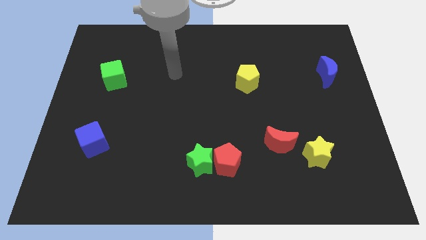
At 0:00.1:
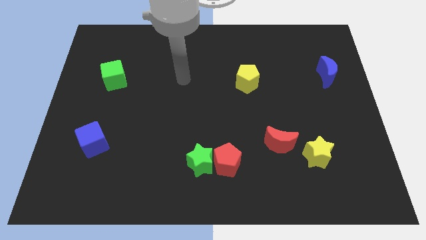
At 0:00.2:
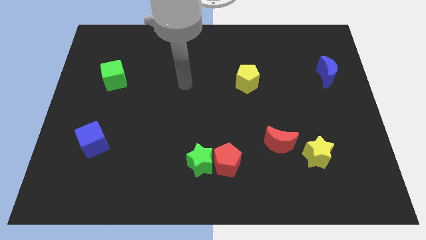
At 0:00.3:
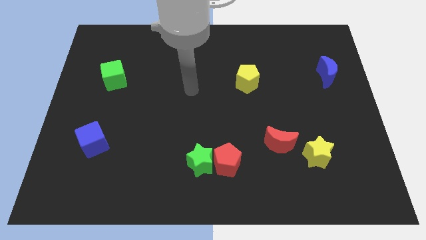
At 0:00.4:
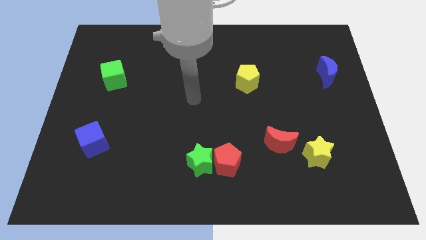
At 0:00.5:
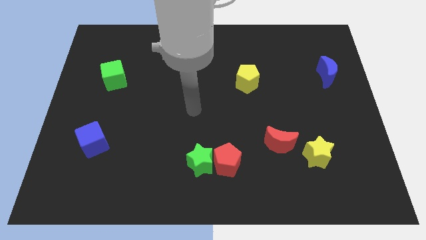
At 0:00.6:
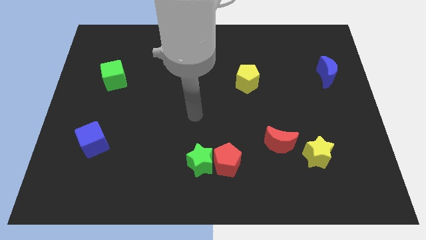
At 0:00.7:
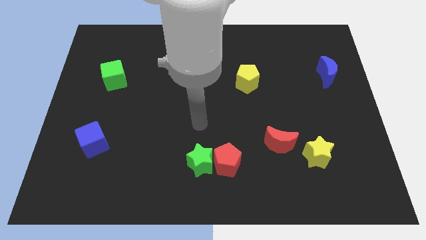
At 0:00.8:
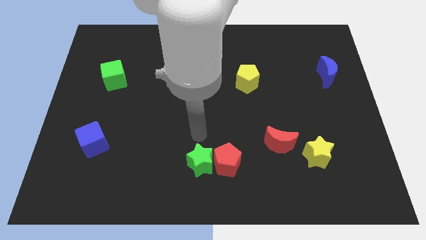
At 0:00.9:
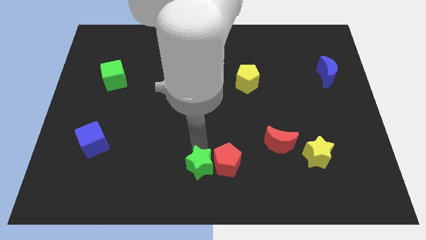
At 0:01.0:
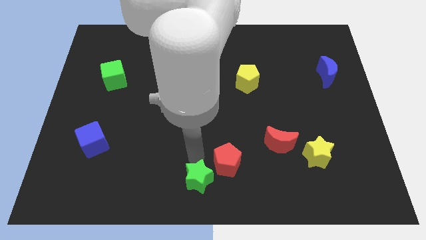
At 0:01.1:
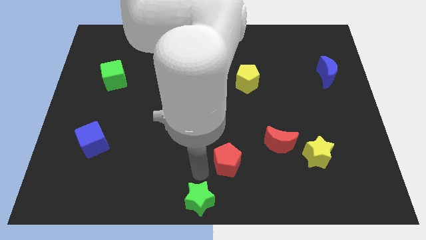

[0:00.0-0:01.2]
separate the red pentagon from the green star

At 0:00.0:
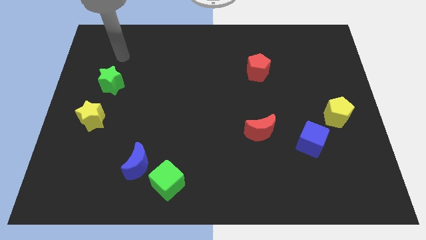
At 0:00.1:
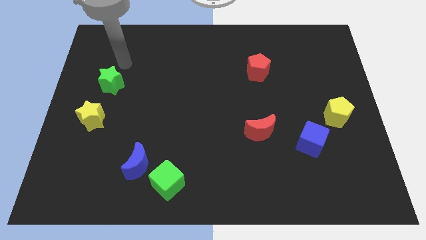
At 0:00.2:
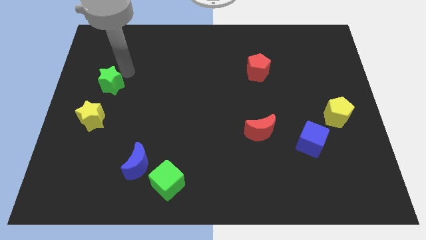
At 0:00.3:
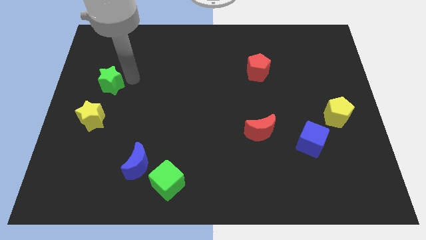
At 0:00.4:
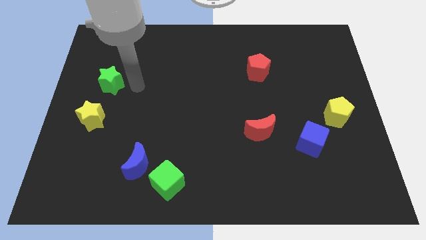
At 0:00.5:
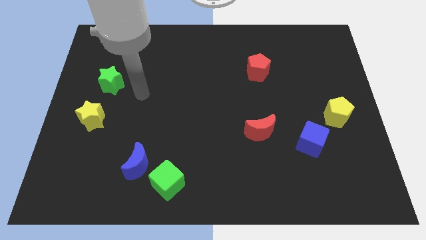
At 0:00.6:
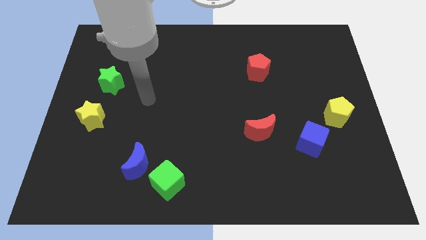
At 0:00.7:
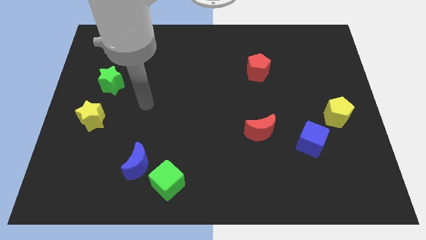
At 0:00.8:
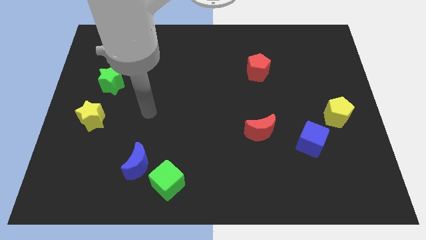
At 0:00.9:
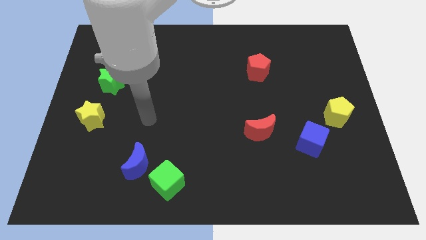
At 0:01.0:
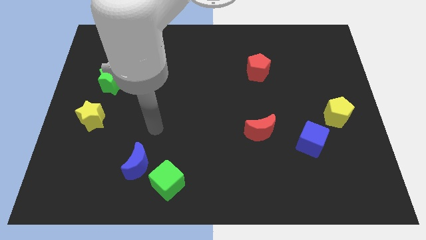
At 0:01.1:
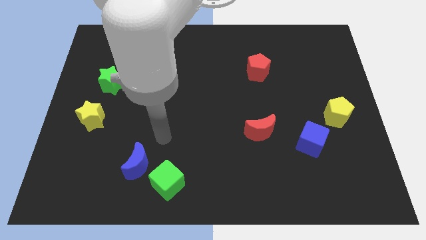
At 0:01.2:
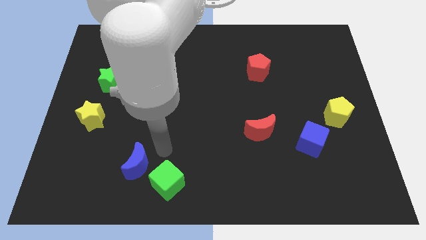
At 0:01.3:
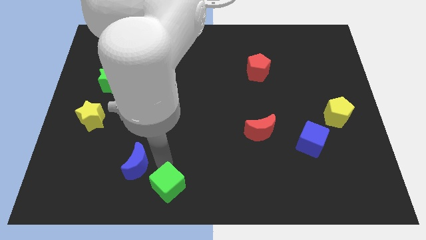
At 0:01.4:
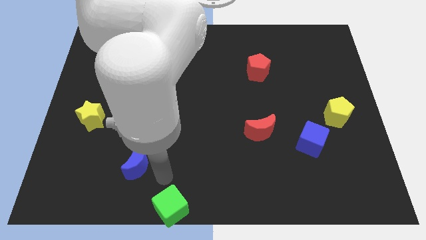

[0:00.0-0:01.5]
pull the blue moon apart from the green cube

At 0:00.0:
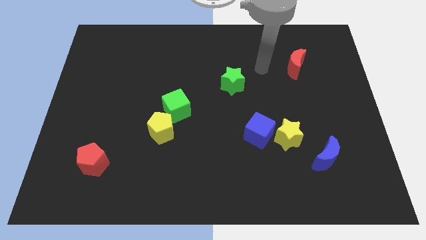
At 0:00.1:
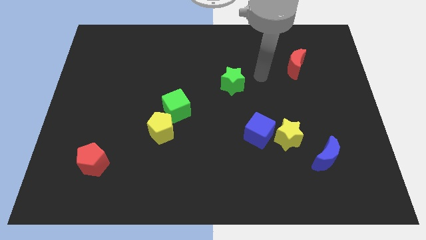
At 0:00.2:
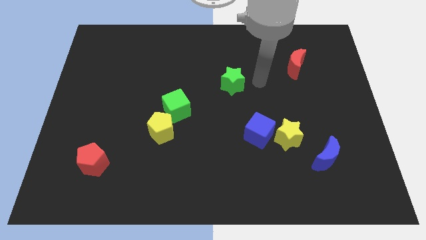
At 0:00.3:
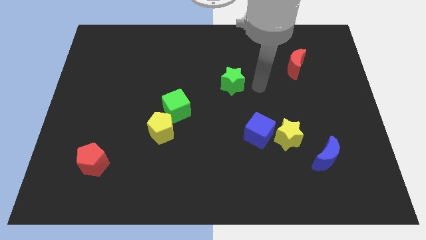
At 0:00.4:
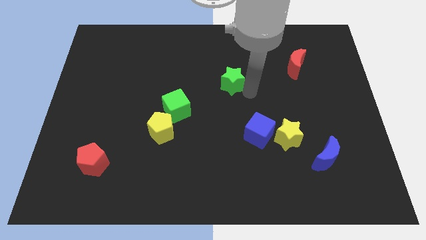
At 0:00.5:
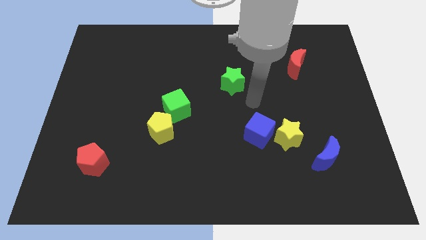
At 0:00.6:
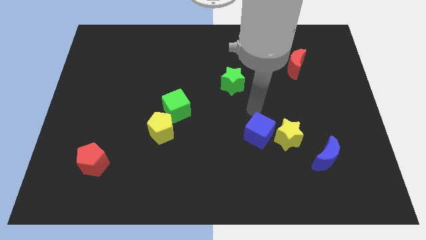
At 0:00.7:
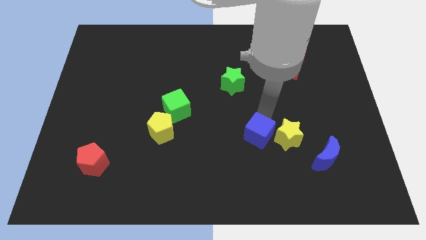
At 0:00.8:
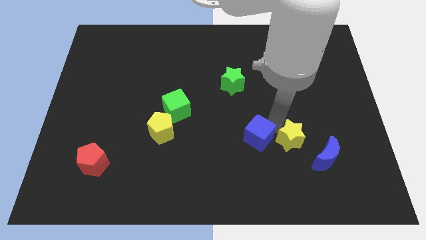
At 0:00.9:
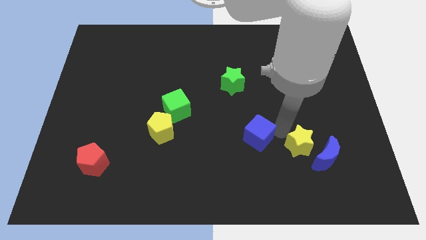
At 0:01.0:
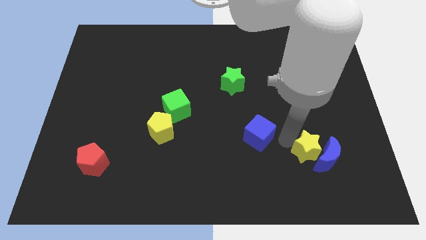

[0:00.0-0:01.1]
separate the blue cube from the yellow star

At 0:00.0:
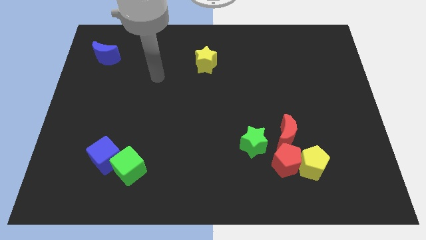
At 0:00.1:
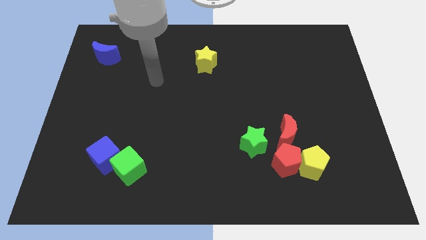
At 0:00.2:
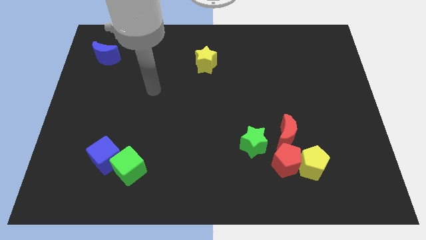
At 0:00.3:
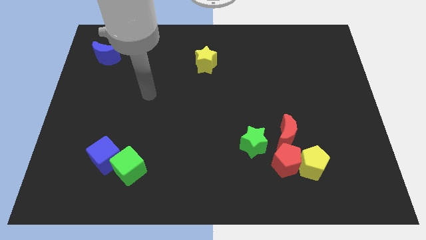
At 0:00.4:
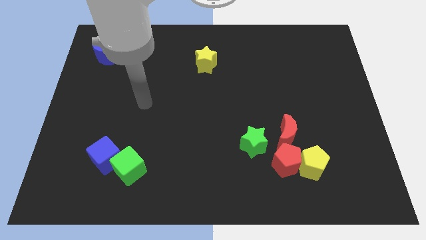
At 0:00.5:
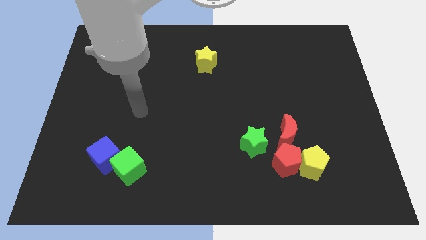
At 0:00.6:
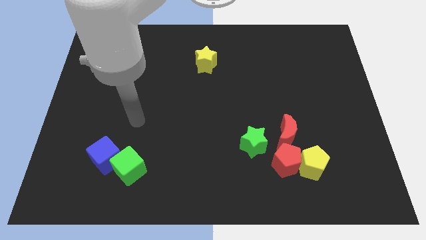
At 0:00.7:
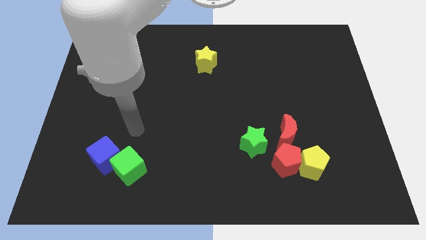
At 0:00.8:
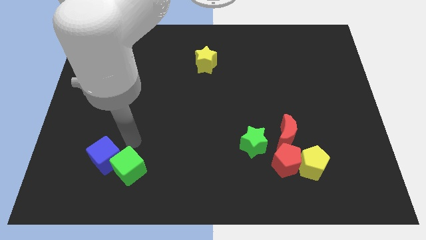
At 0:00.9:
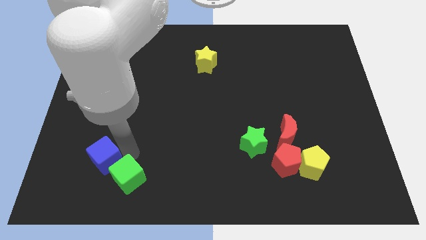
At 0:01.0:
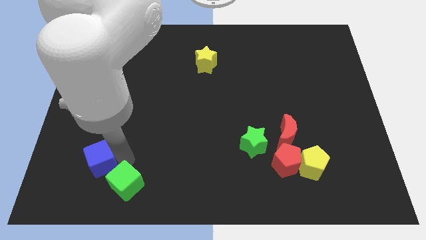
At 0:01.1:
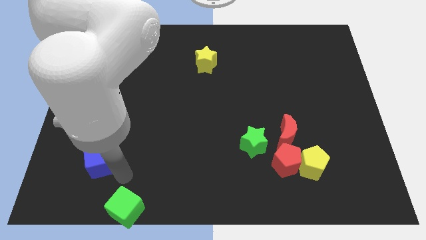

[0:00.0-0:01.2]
move the blue cube away from the green cube

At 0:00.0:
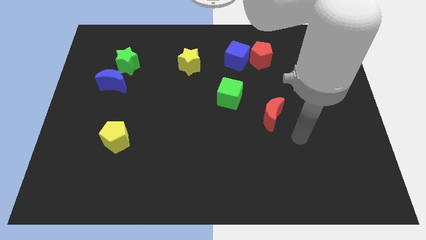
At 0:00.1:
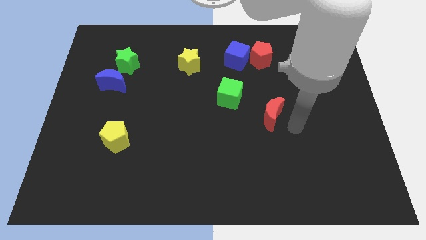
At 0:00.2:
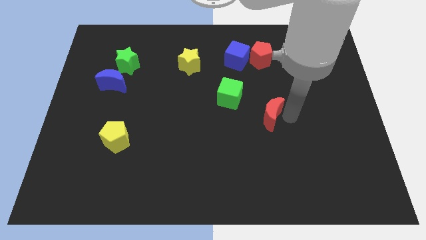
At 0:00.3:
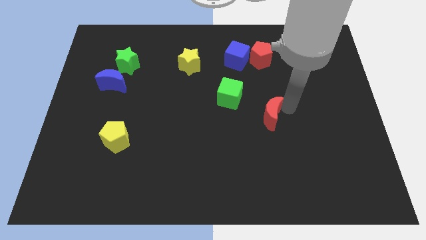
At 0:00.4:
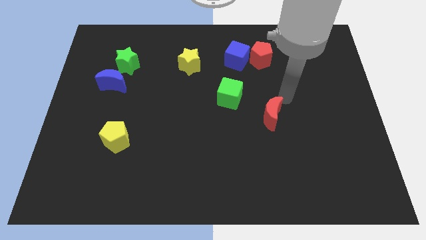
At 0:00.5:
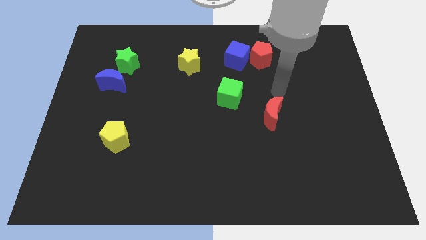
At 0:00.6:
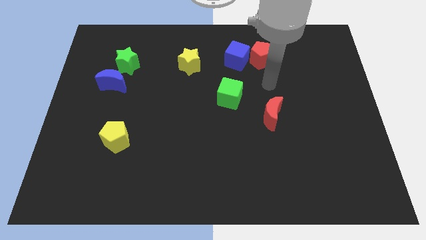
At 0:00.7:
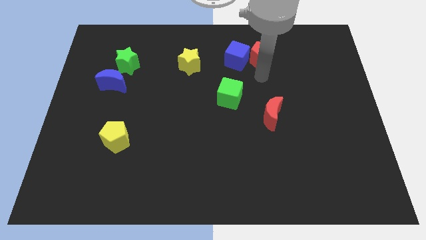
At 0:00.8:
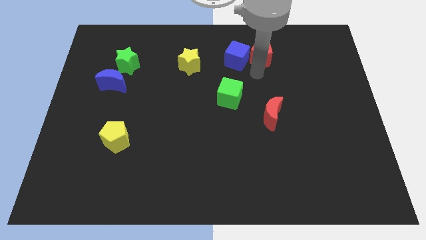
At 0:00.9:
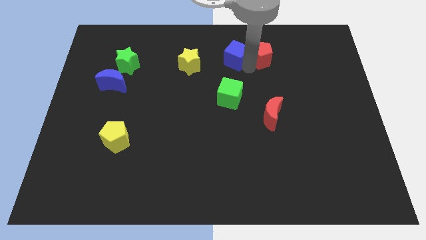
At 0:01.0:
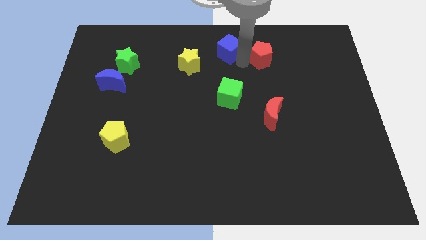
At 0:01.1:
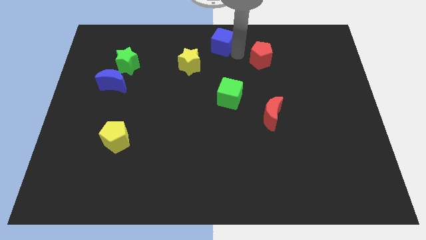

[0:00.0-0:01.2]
pull the red pentagon apart from the blue cube

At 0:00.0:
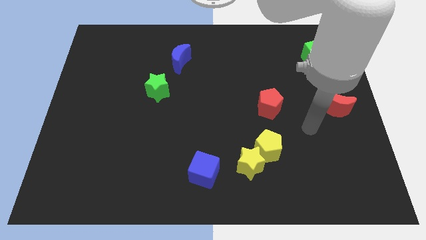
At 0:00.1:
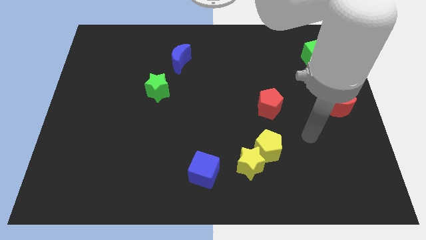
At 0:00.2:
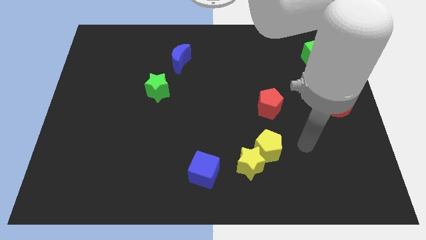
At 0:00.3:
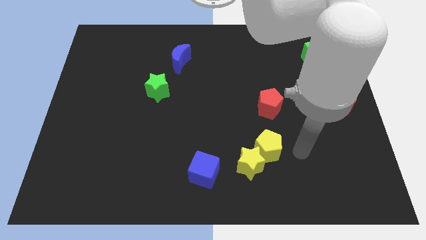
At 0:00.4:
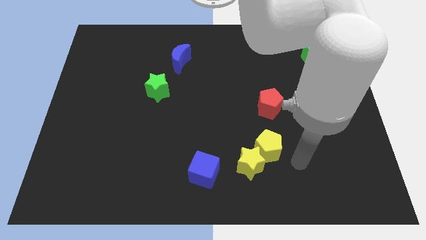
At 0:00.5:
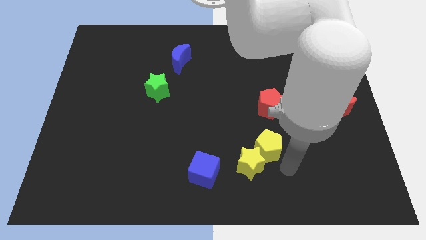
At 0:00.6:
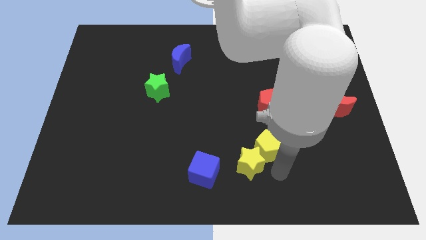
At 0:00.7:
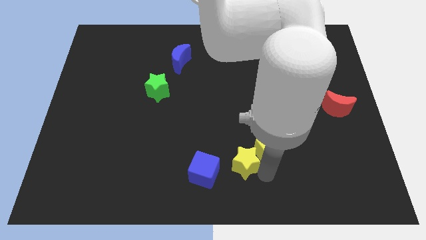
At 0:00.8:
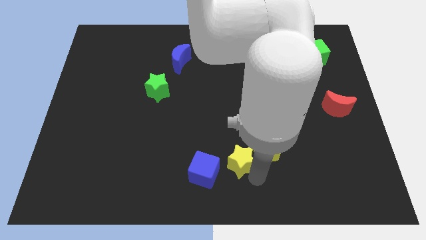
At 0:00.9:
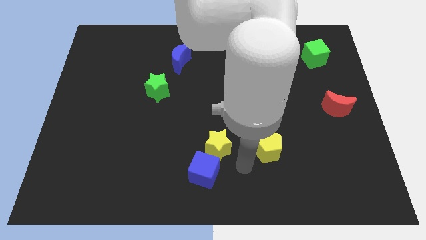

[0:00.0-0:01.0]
pull the yellow pentagon apart from the yellow star

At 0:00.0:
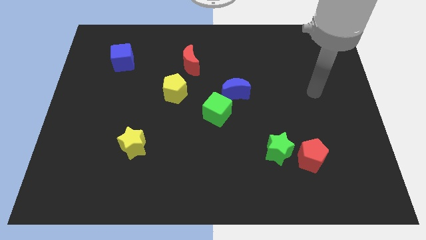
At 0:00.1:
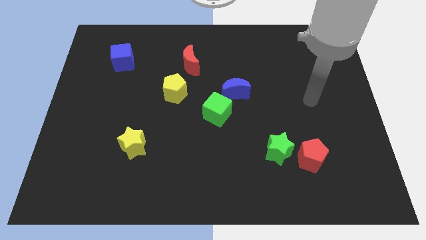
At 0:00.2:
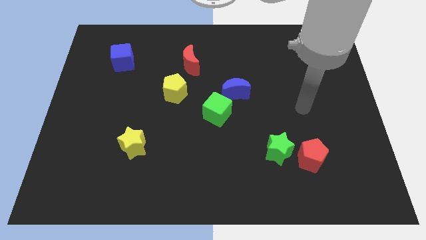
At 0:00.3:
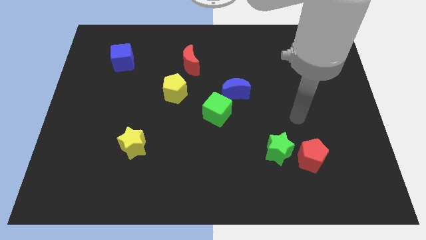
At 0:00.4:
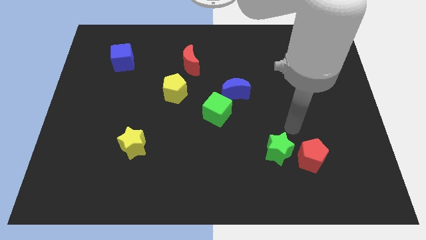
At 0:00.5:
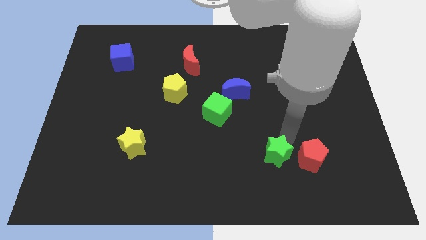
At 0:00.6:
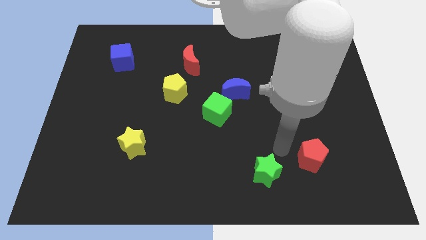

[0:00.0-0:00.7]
move the red pentagon away from the green star

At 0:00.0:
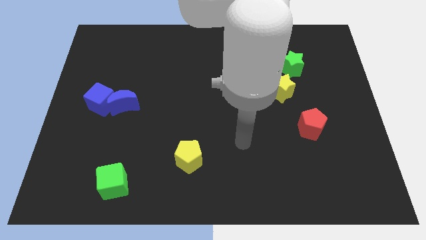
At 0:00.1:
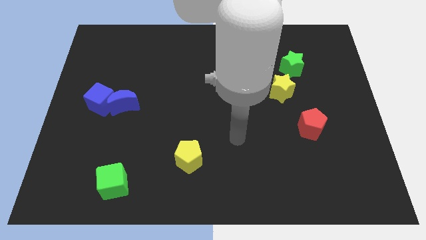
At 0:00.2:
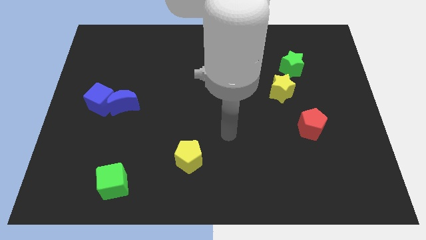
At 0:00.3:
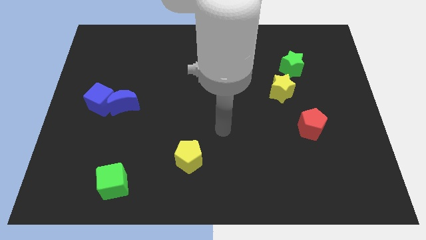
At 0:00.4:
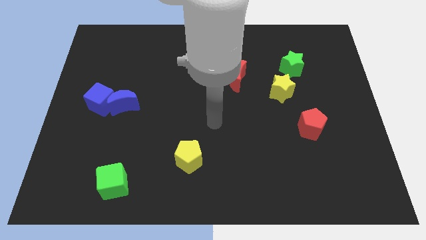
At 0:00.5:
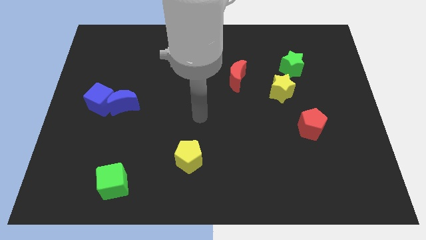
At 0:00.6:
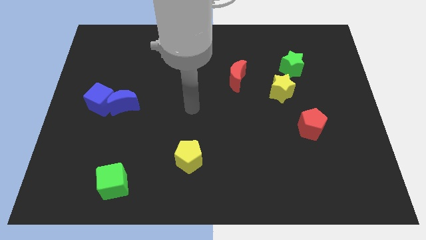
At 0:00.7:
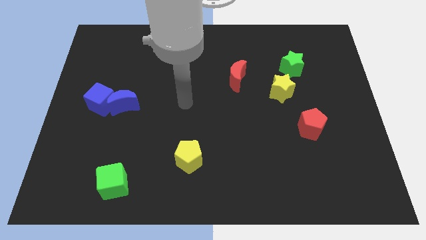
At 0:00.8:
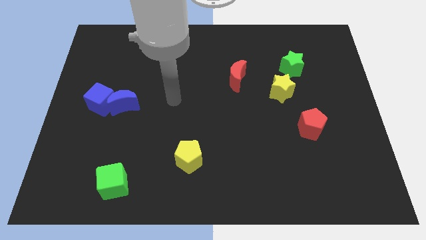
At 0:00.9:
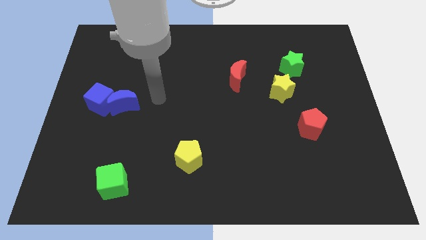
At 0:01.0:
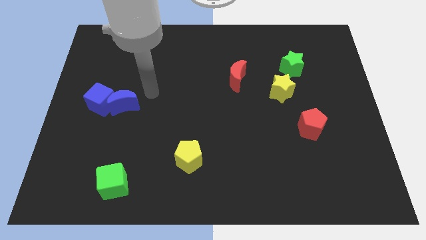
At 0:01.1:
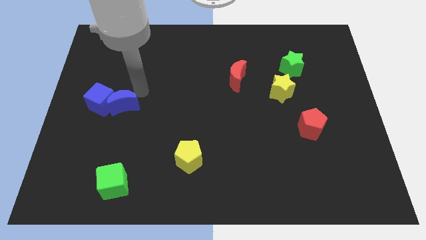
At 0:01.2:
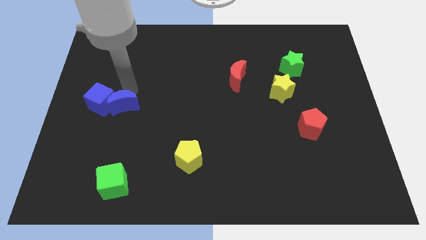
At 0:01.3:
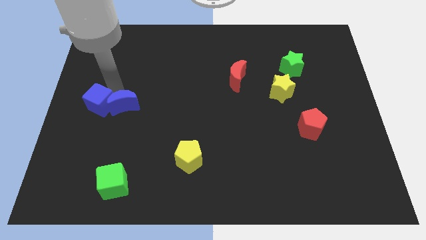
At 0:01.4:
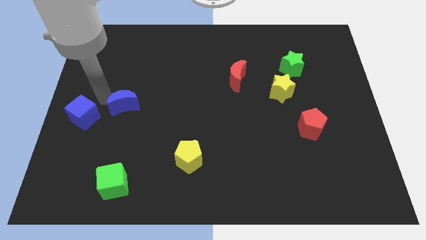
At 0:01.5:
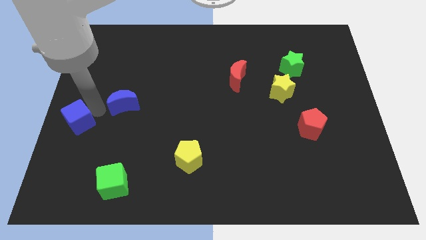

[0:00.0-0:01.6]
move the blue moon away from the blue cube
